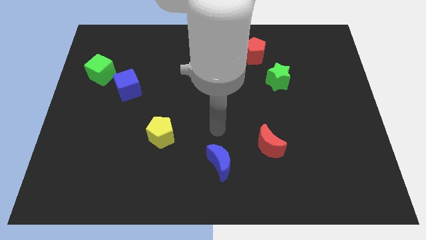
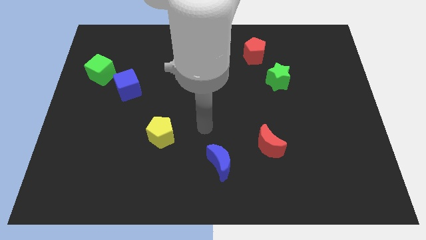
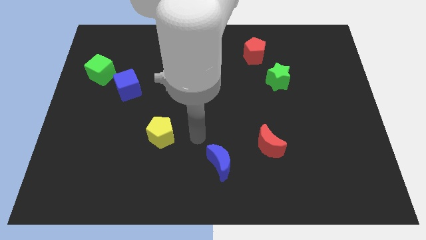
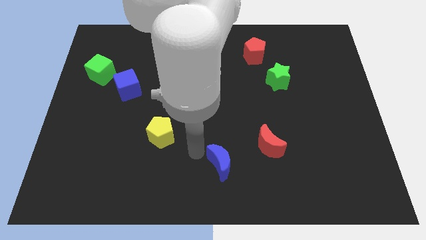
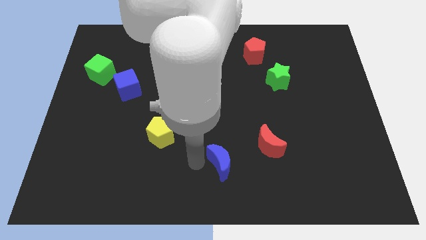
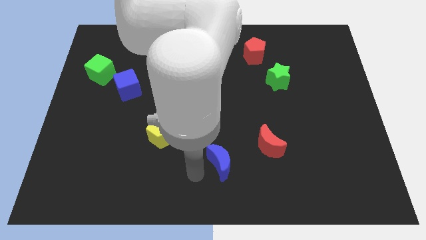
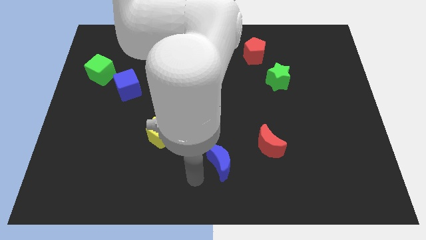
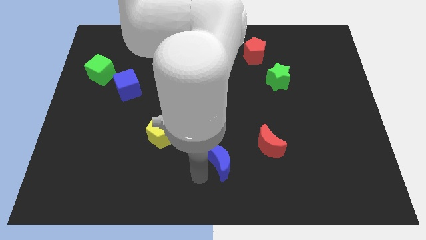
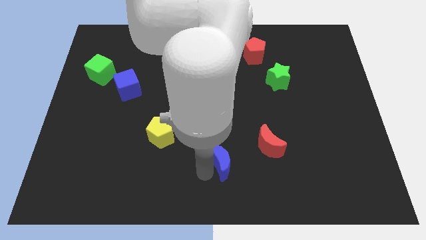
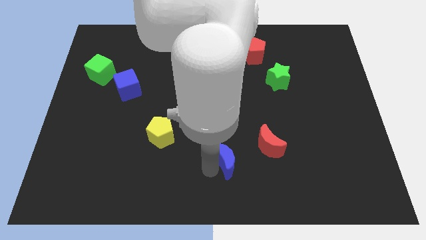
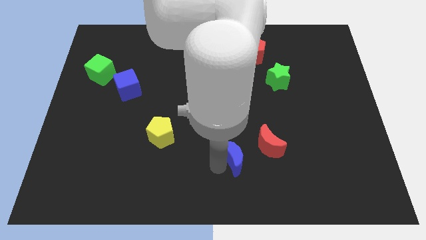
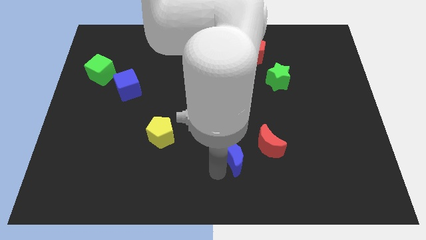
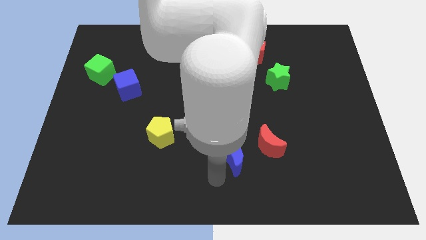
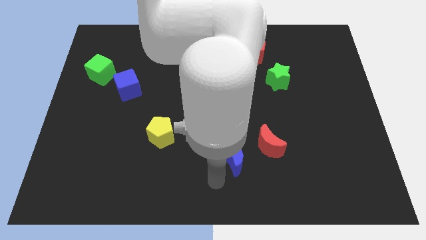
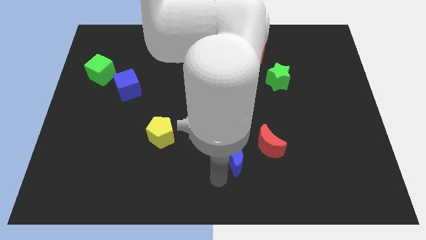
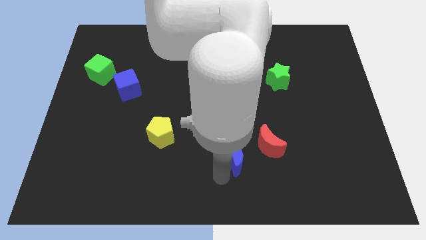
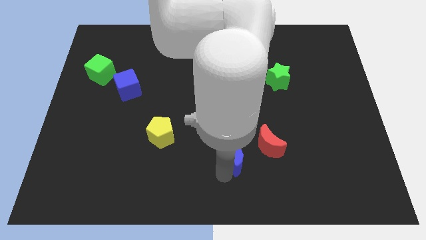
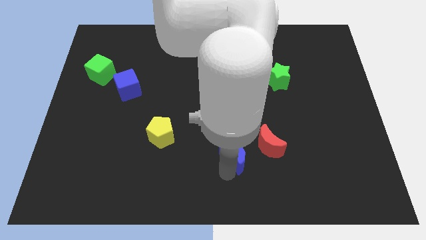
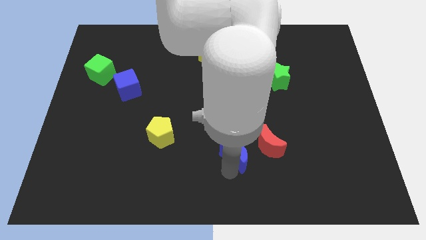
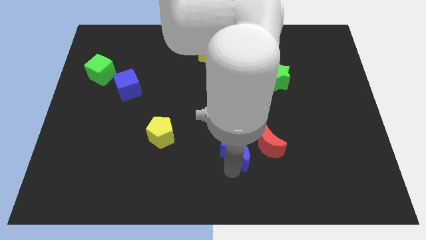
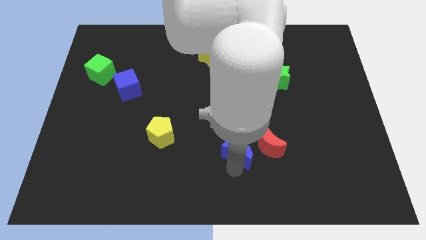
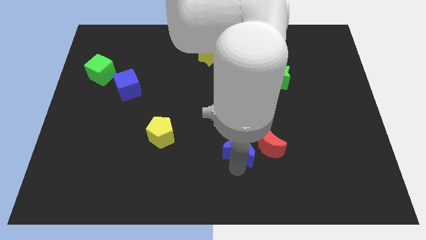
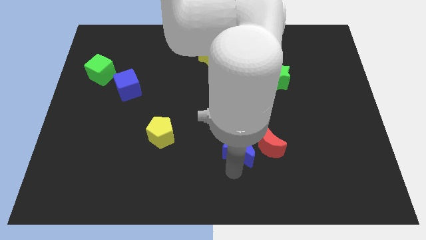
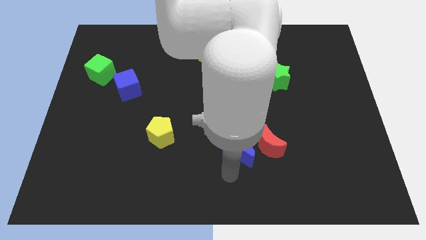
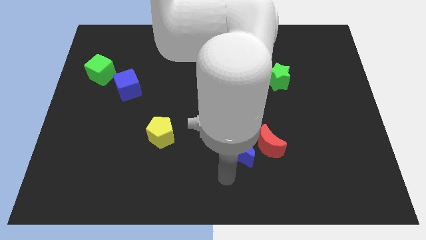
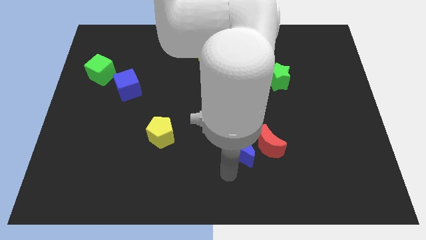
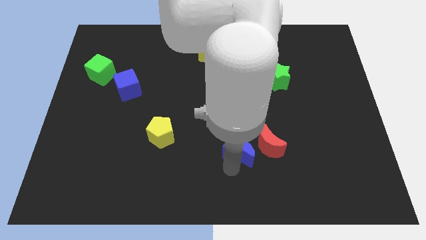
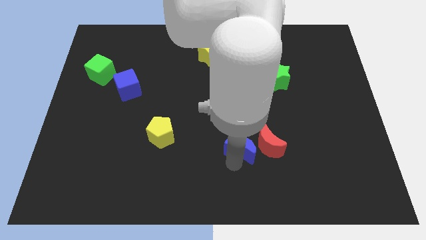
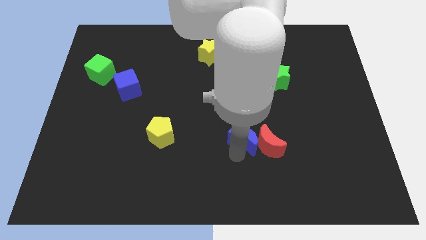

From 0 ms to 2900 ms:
slightly push the blue moon diagonally up and to the right

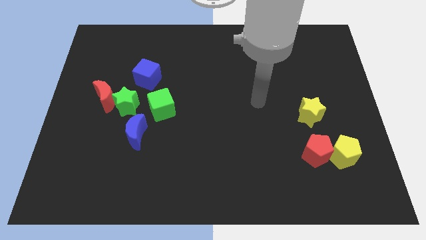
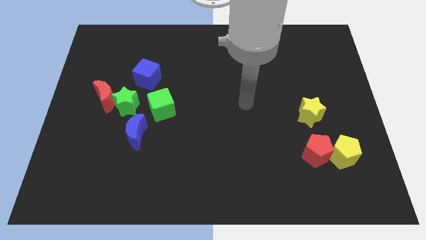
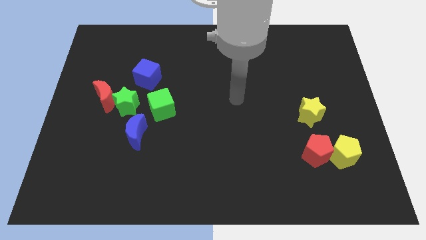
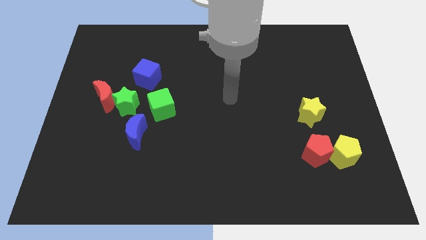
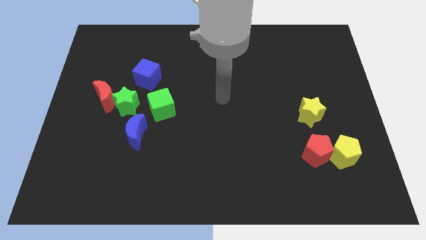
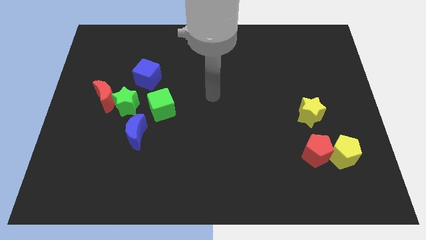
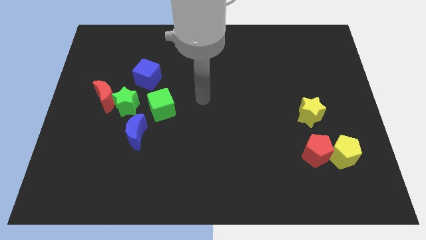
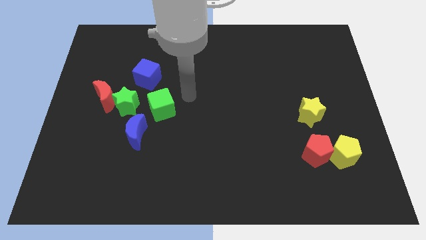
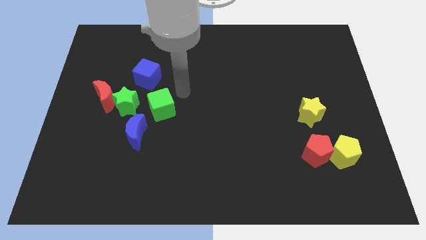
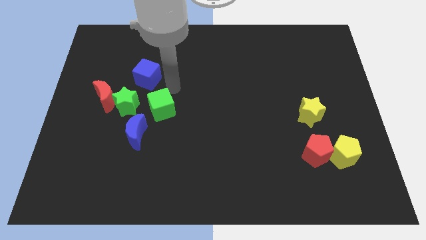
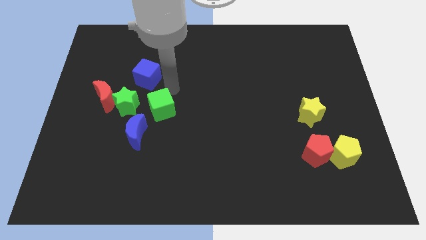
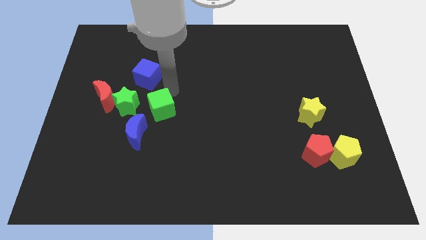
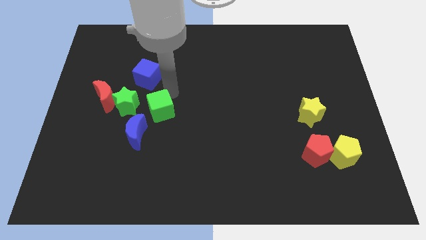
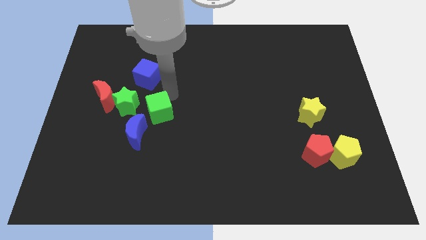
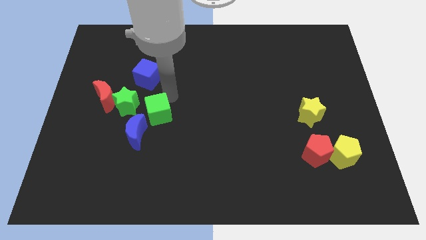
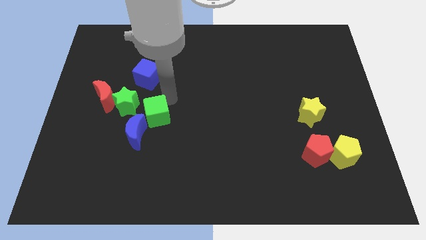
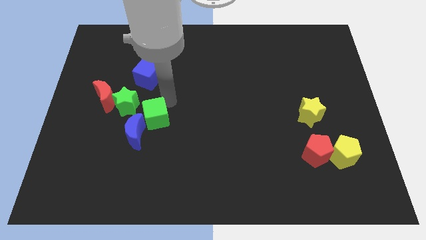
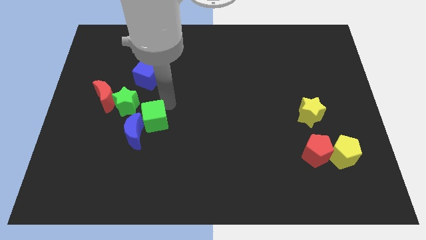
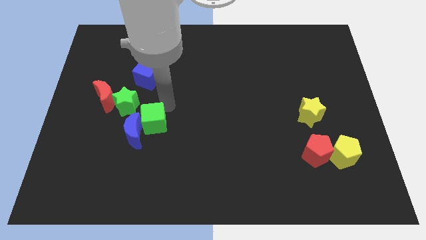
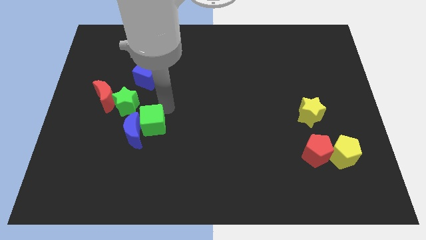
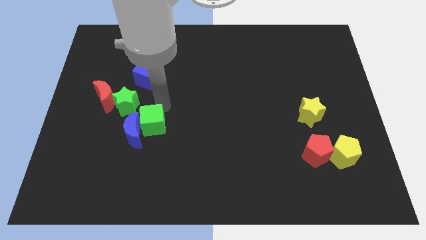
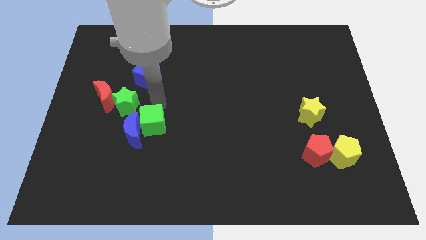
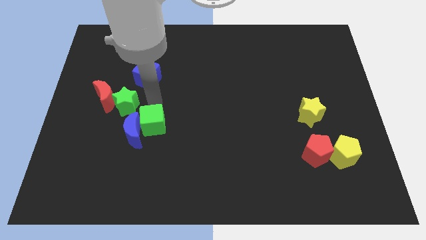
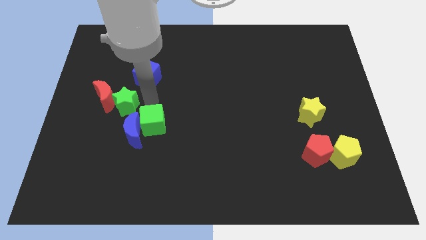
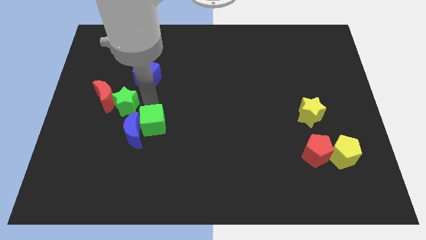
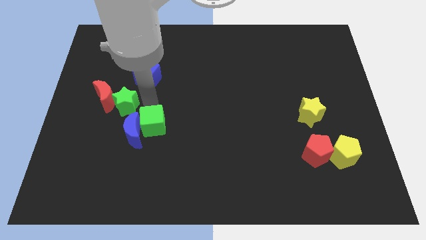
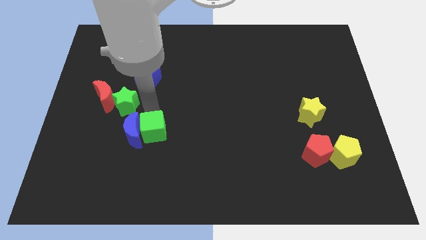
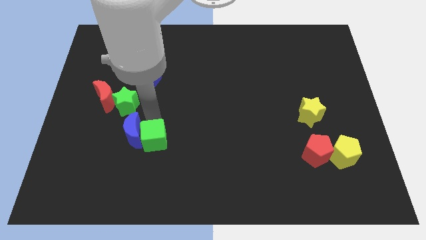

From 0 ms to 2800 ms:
push the green cube slightly down

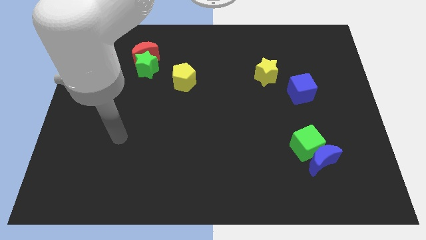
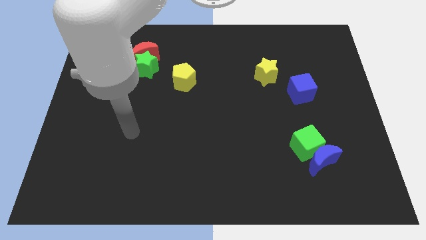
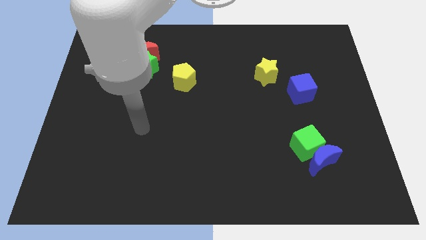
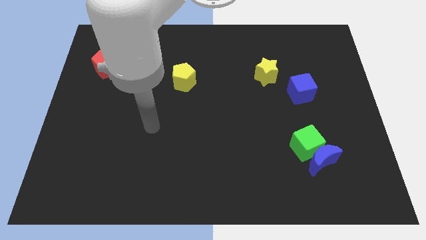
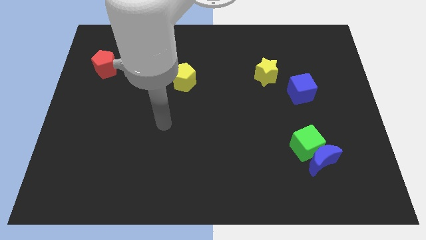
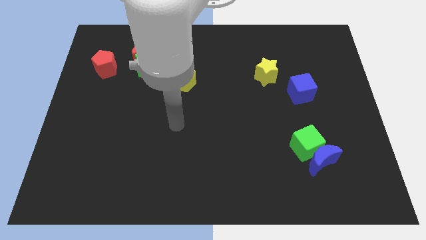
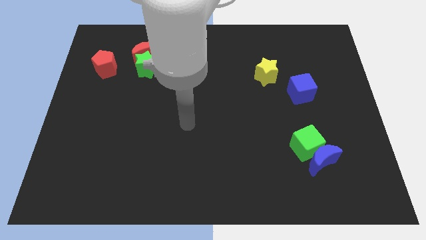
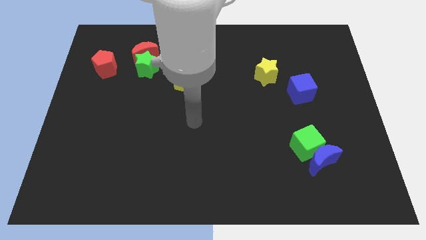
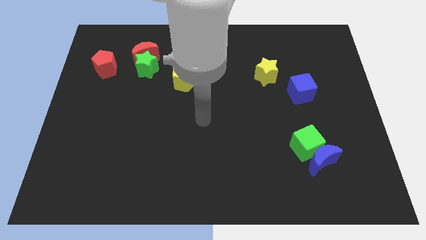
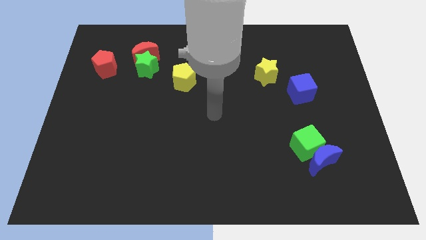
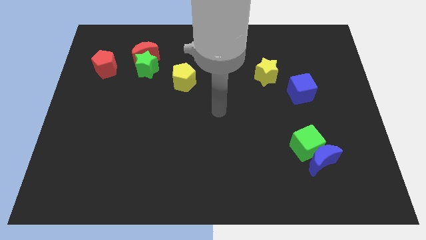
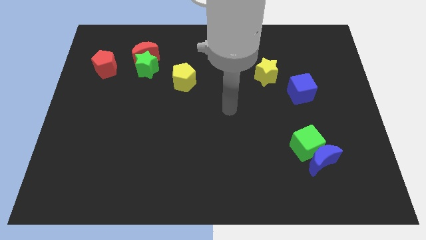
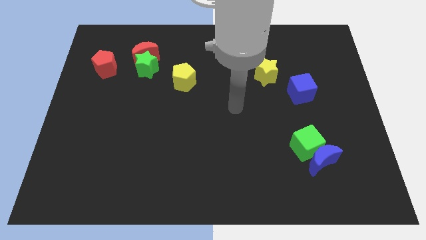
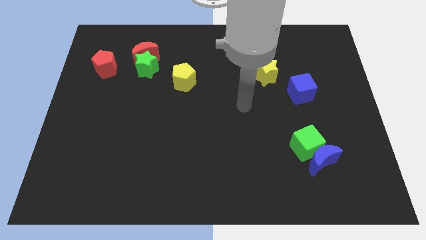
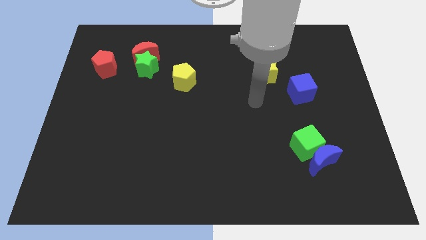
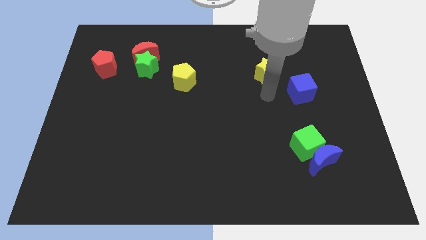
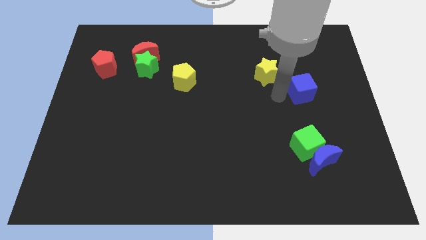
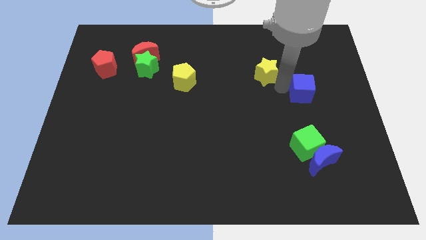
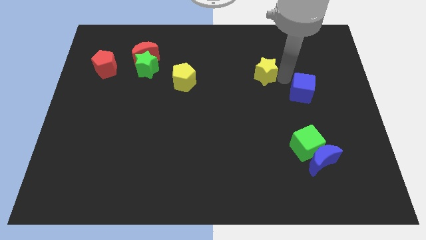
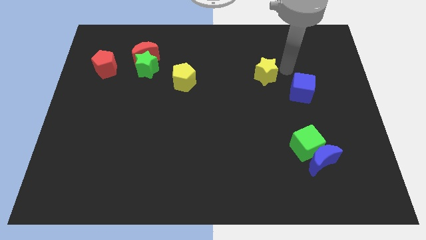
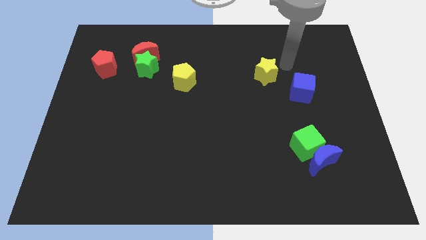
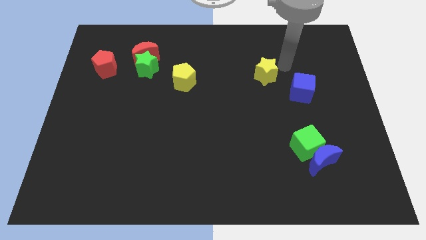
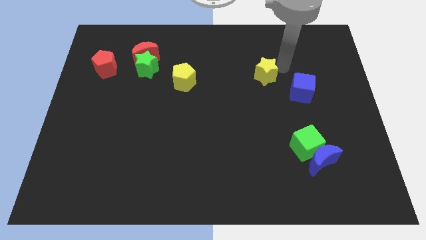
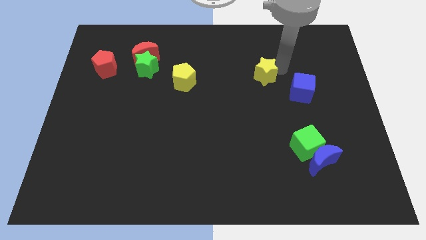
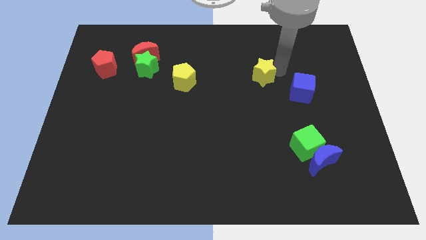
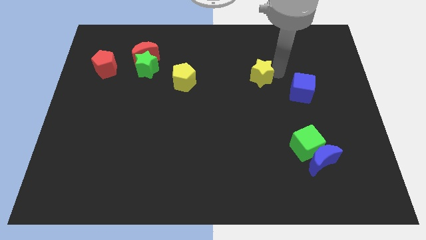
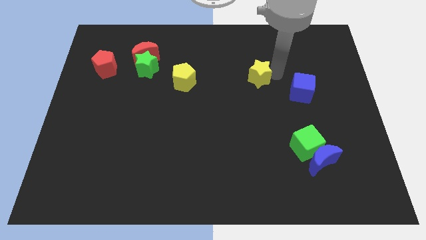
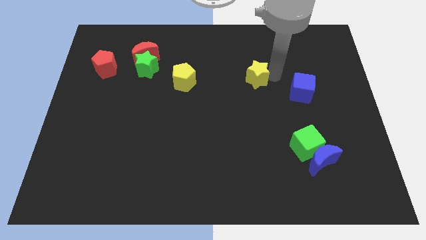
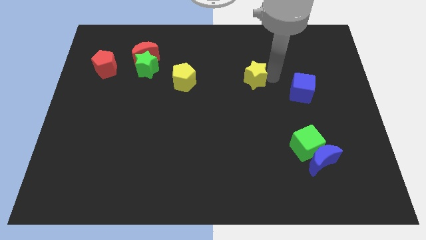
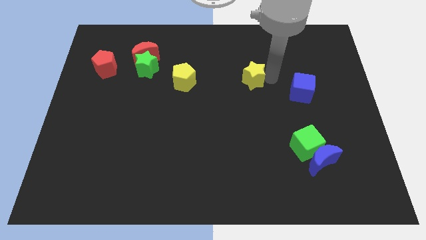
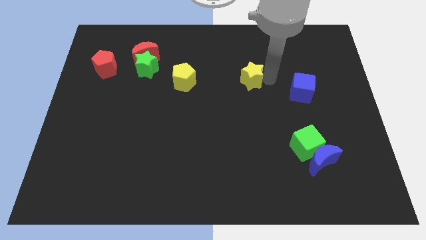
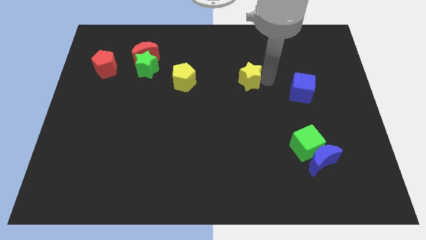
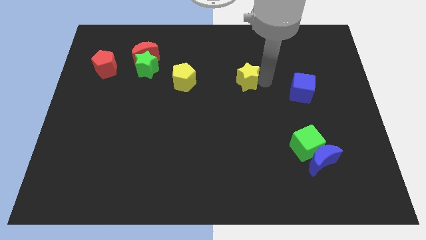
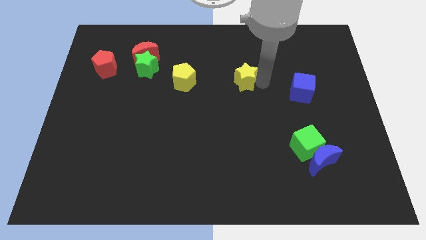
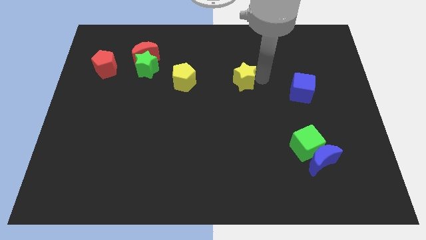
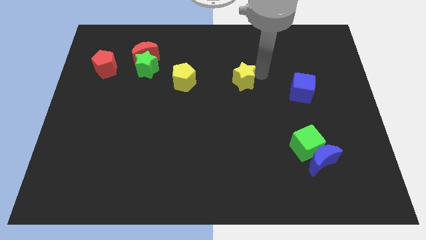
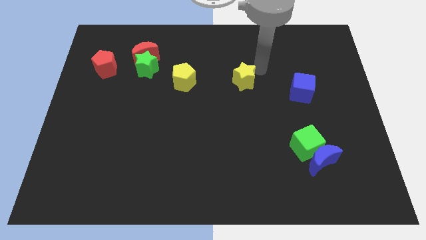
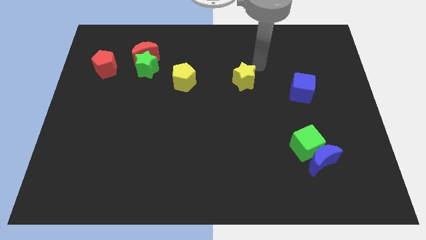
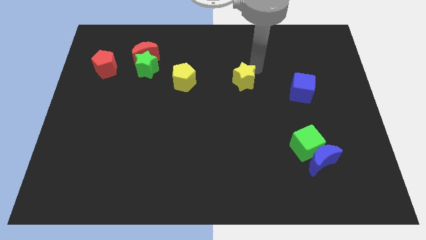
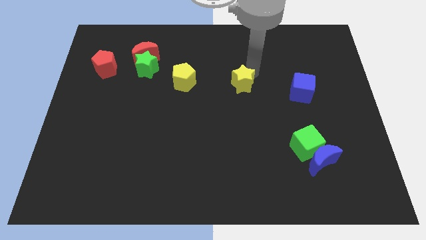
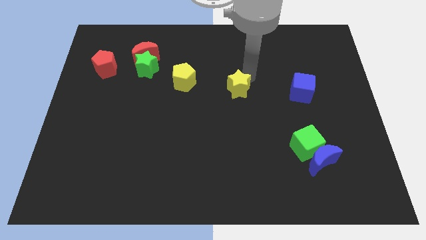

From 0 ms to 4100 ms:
slightly push the yellow star down and left
